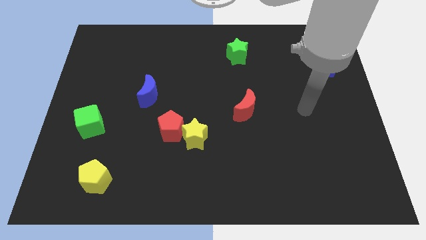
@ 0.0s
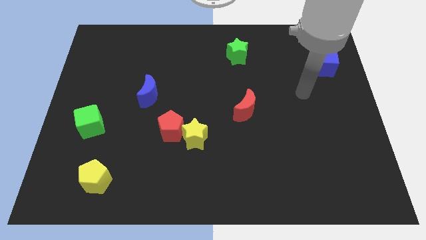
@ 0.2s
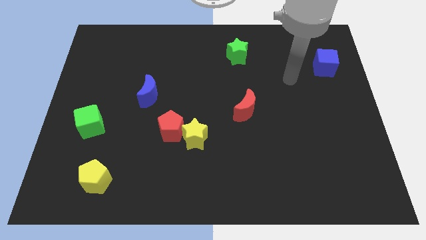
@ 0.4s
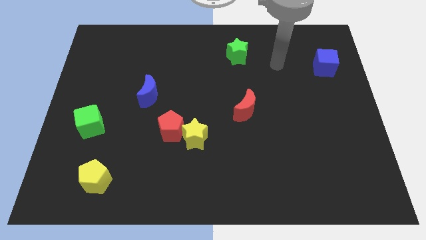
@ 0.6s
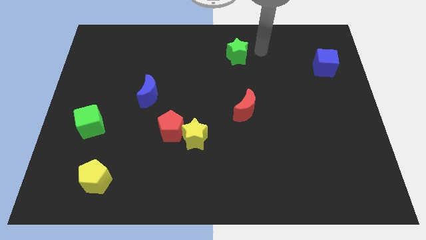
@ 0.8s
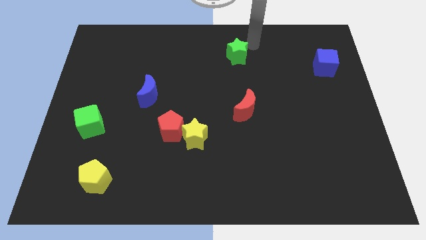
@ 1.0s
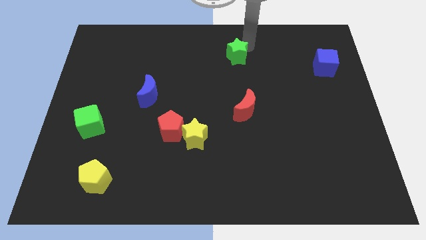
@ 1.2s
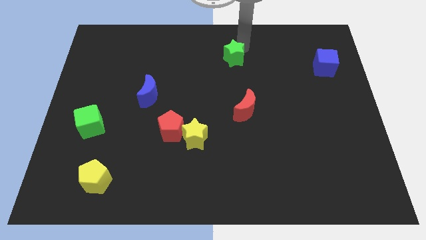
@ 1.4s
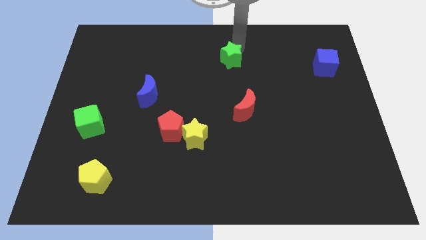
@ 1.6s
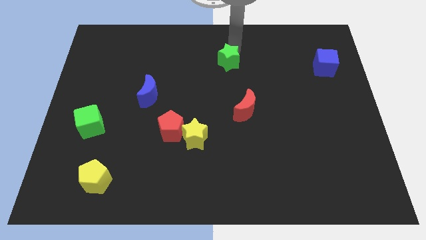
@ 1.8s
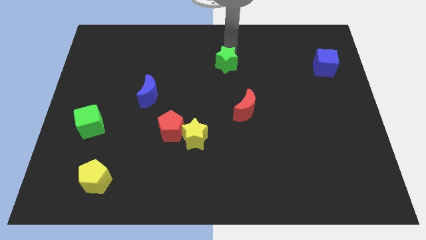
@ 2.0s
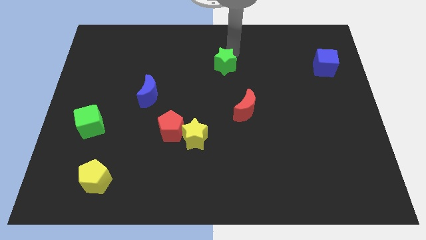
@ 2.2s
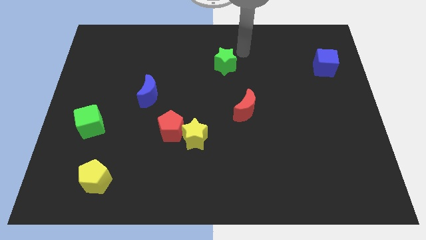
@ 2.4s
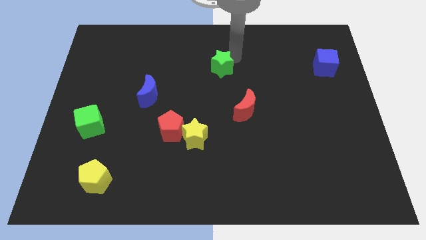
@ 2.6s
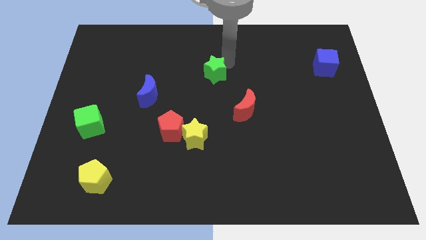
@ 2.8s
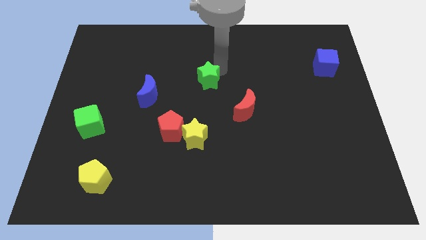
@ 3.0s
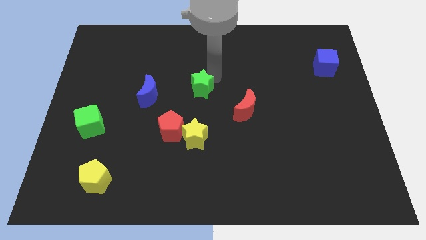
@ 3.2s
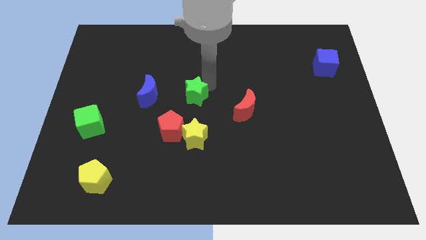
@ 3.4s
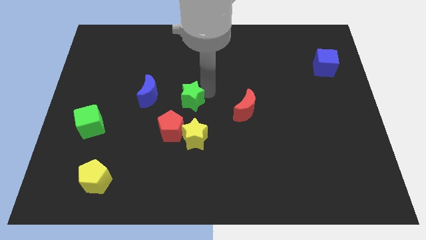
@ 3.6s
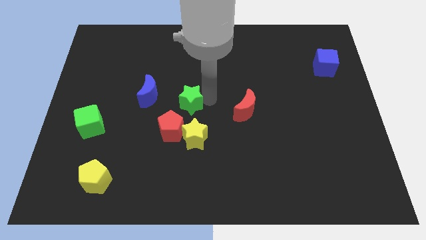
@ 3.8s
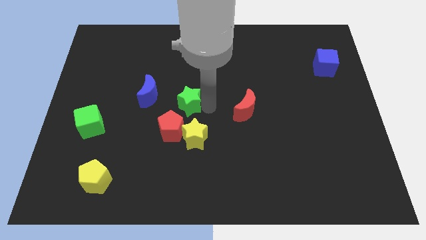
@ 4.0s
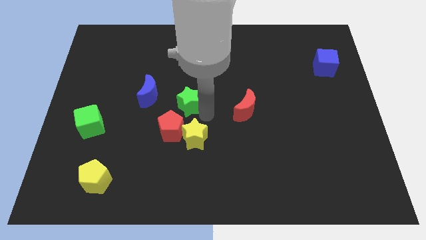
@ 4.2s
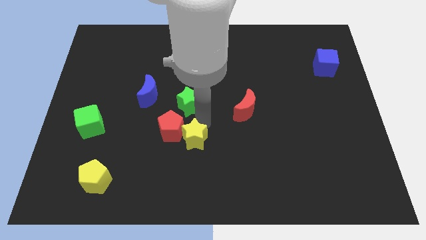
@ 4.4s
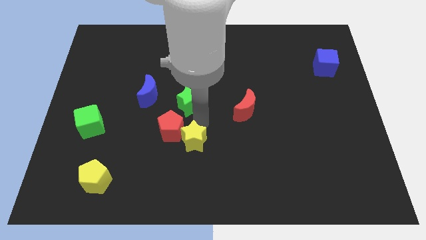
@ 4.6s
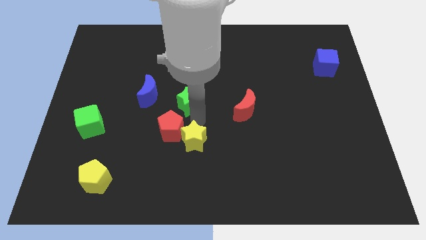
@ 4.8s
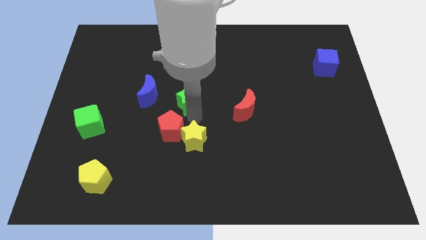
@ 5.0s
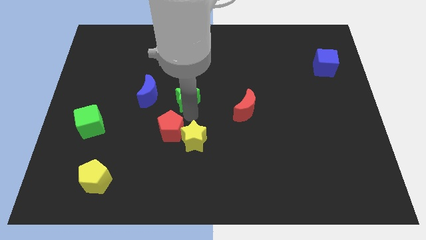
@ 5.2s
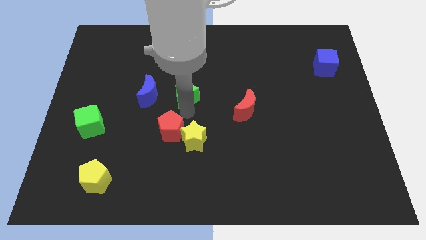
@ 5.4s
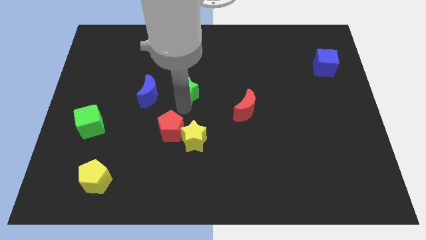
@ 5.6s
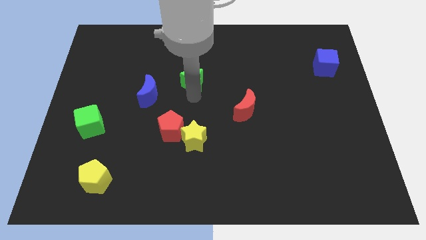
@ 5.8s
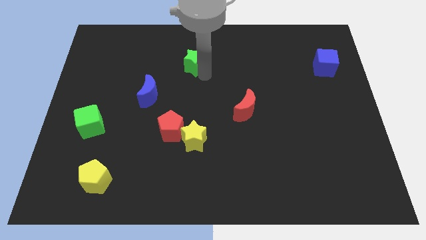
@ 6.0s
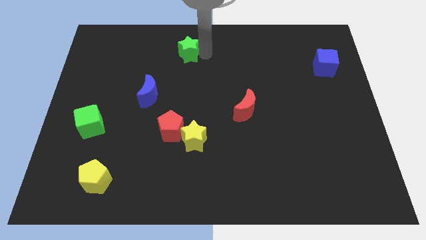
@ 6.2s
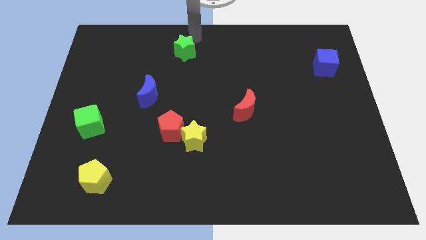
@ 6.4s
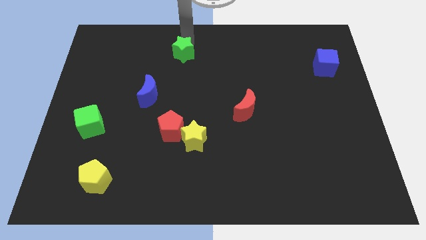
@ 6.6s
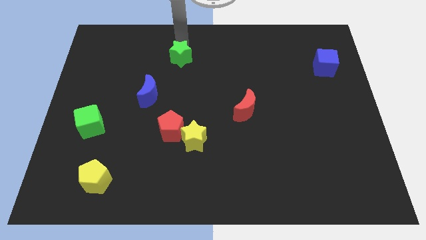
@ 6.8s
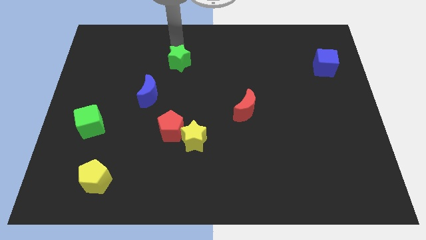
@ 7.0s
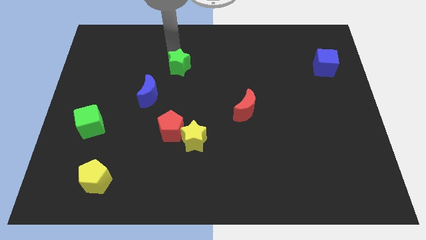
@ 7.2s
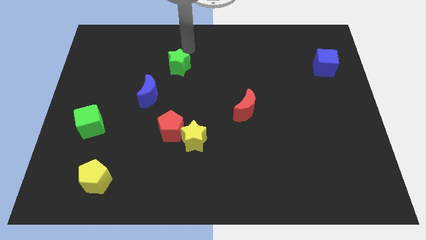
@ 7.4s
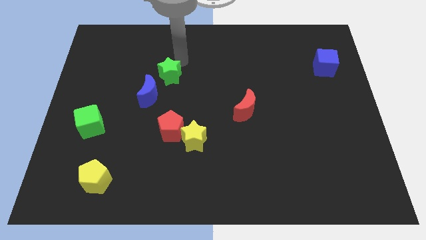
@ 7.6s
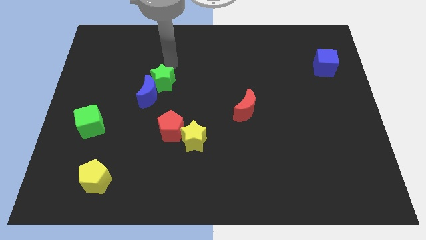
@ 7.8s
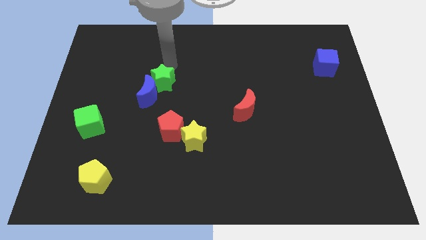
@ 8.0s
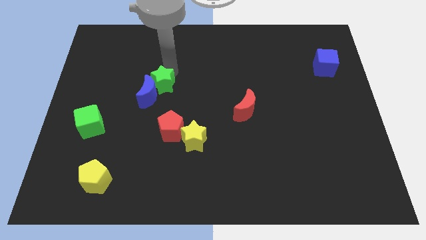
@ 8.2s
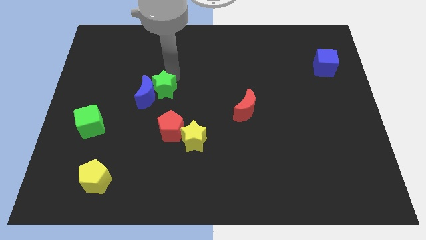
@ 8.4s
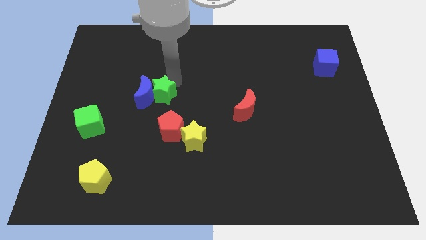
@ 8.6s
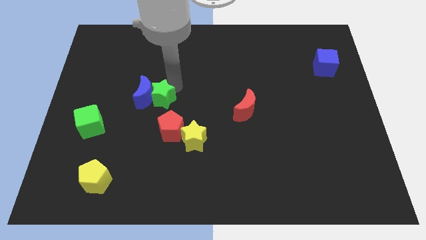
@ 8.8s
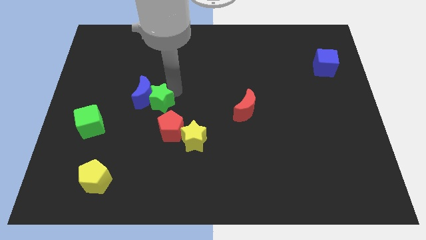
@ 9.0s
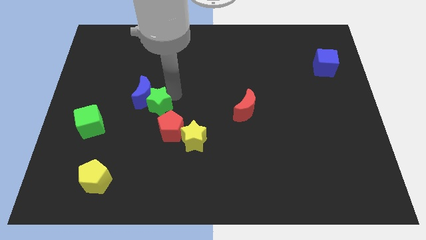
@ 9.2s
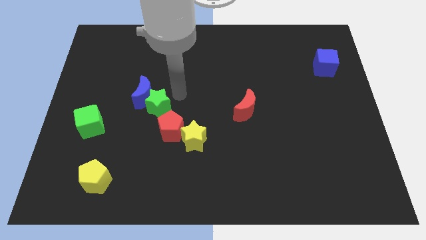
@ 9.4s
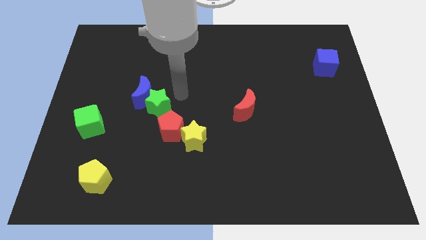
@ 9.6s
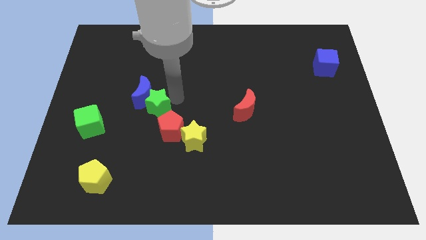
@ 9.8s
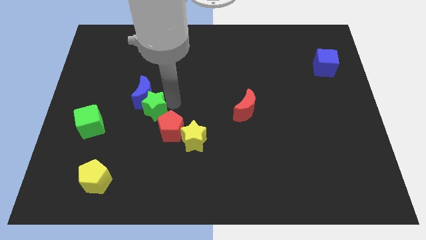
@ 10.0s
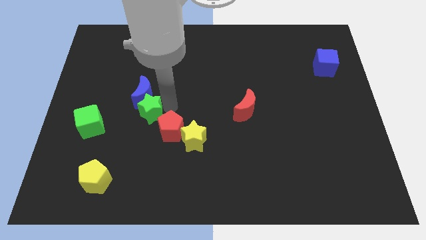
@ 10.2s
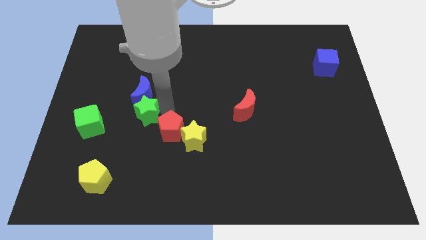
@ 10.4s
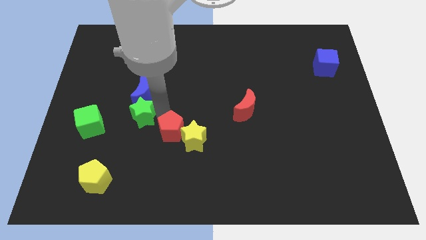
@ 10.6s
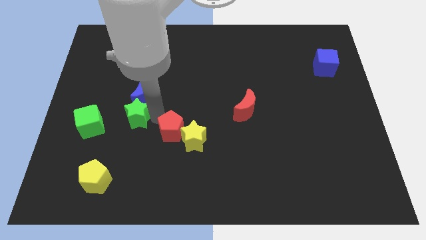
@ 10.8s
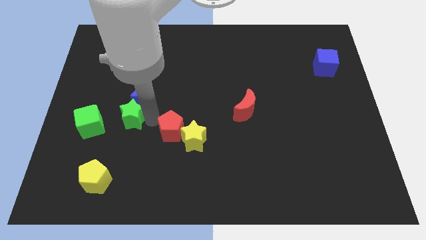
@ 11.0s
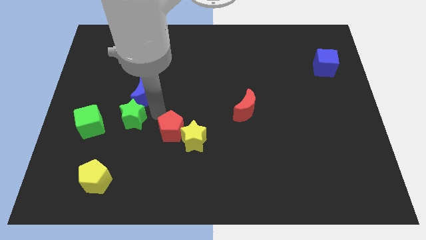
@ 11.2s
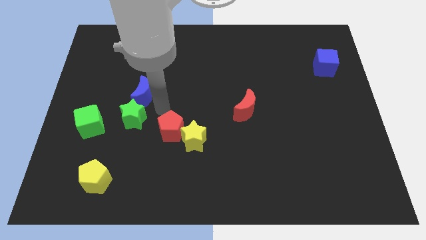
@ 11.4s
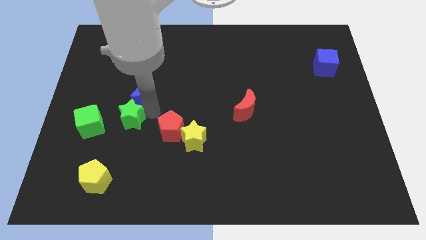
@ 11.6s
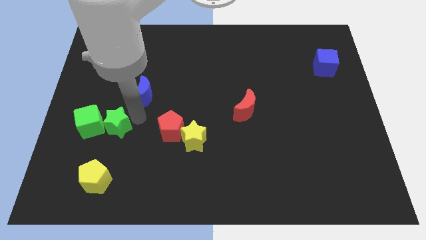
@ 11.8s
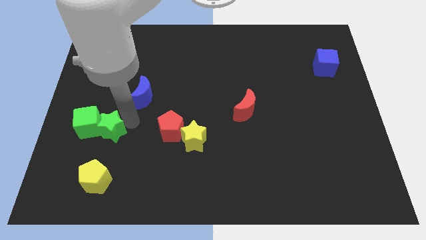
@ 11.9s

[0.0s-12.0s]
move the green star next to the green cube

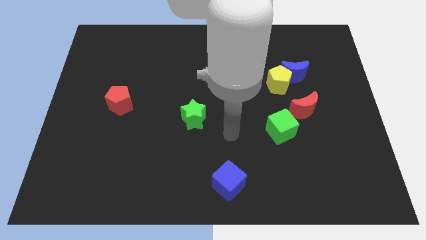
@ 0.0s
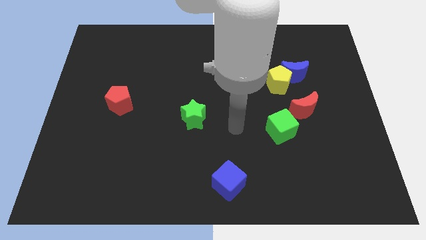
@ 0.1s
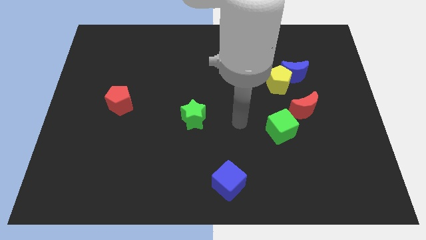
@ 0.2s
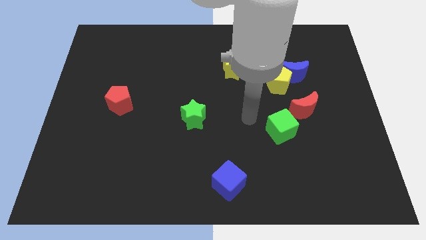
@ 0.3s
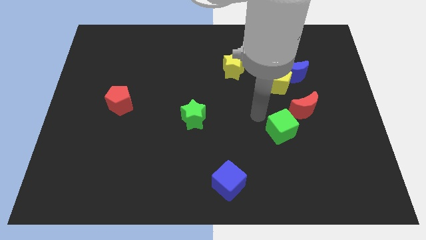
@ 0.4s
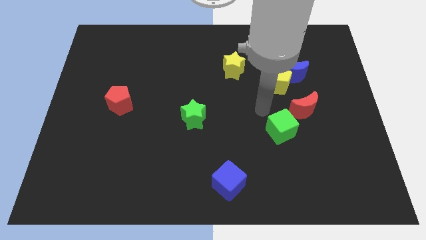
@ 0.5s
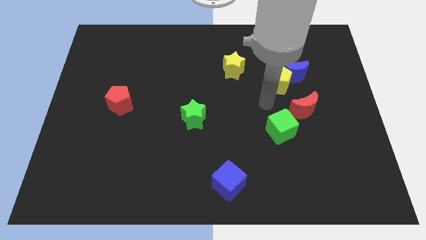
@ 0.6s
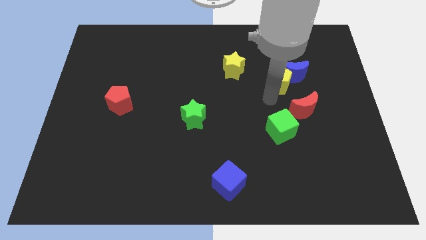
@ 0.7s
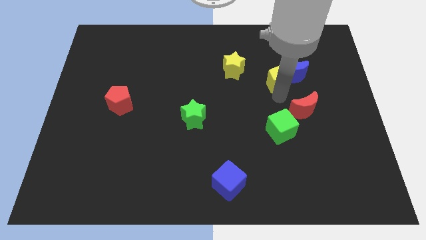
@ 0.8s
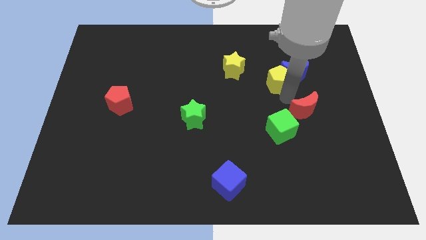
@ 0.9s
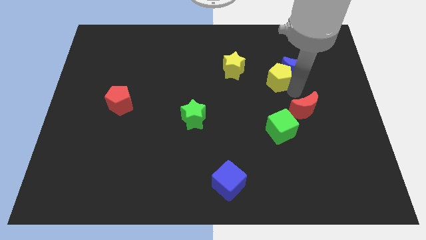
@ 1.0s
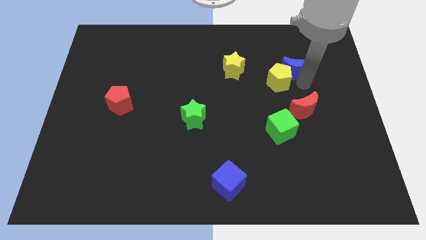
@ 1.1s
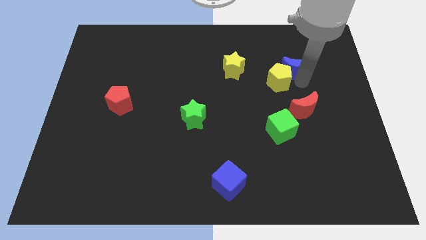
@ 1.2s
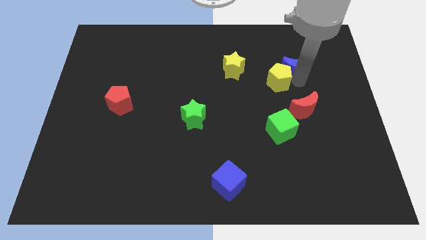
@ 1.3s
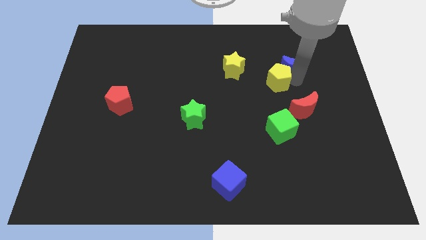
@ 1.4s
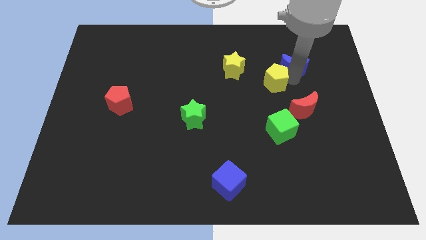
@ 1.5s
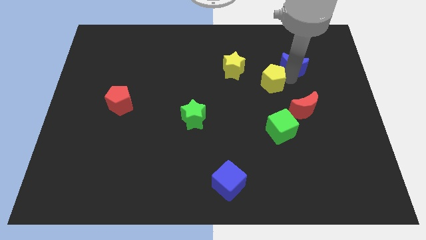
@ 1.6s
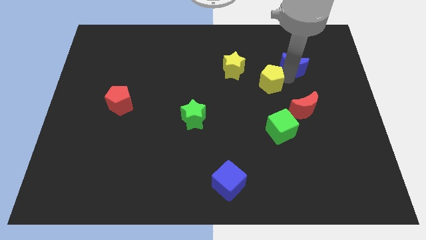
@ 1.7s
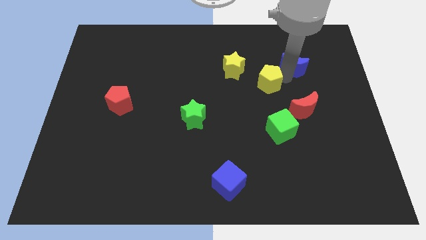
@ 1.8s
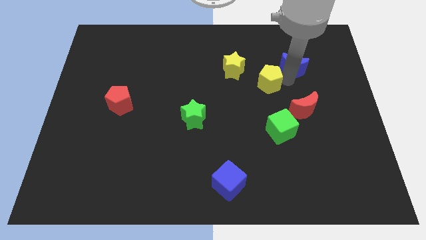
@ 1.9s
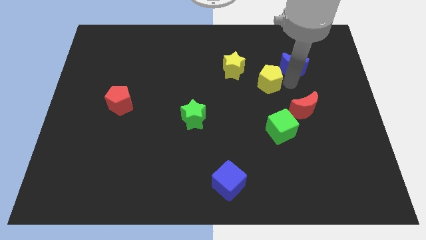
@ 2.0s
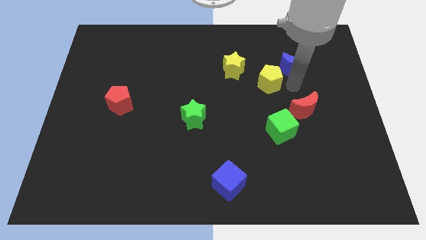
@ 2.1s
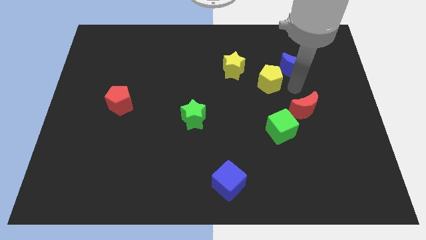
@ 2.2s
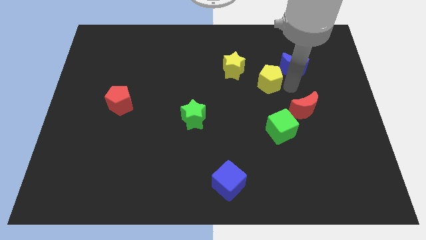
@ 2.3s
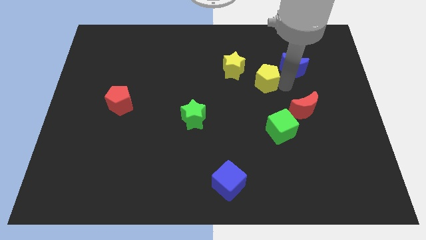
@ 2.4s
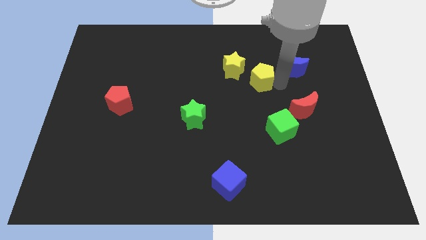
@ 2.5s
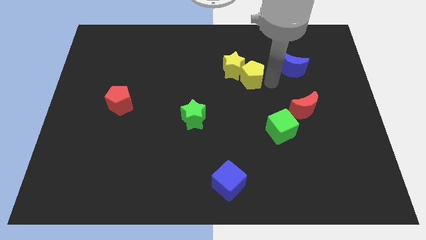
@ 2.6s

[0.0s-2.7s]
push the yellow pentagon towards the yellow star
